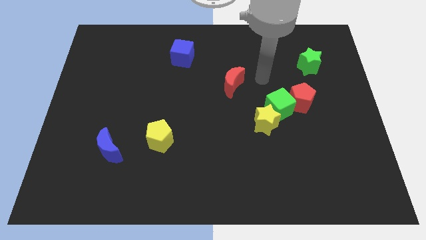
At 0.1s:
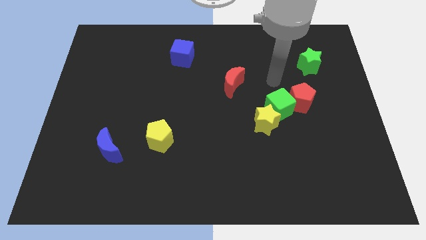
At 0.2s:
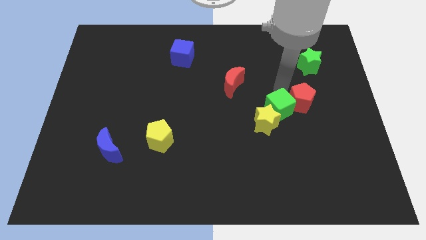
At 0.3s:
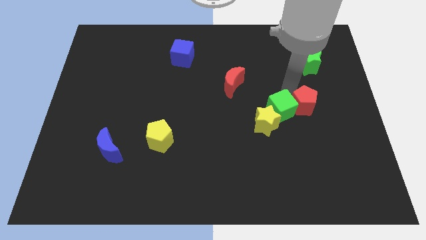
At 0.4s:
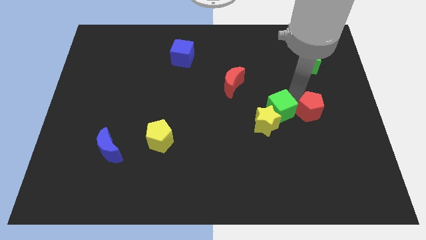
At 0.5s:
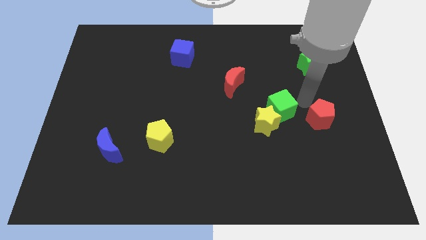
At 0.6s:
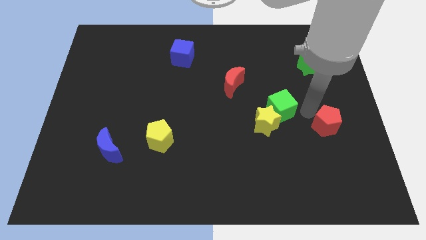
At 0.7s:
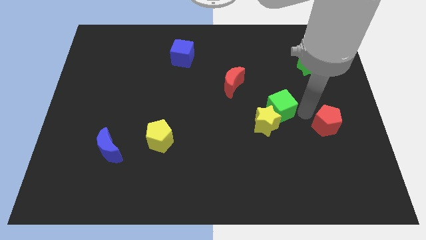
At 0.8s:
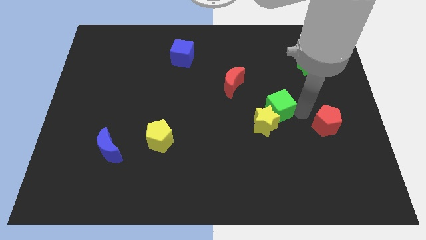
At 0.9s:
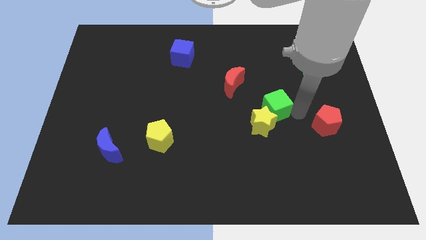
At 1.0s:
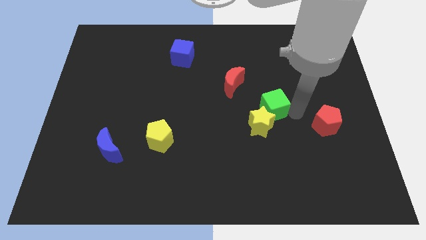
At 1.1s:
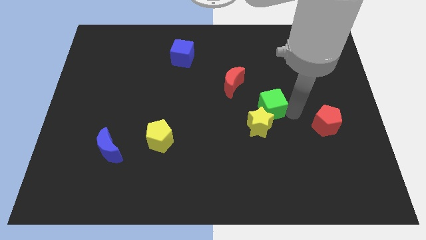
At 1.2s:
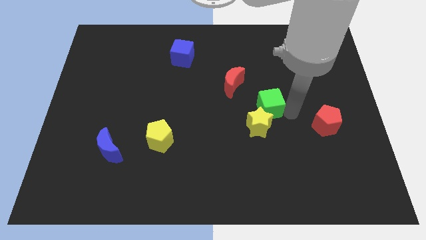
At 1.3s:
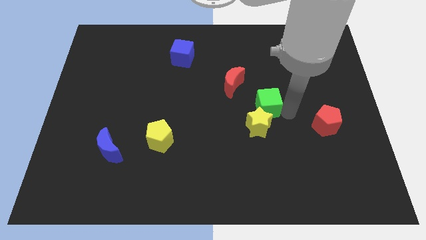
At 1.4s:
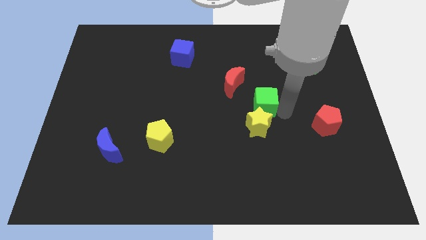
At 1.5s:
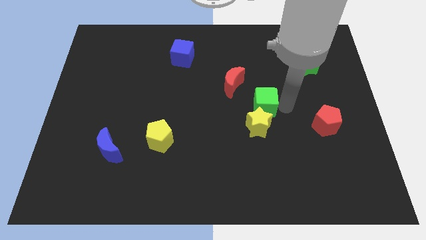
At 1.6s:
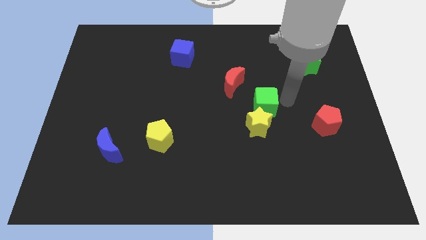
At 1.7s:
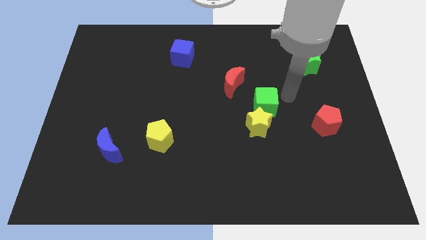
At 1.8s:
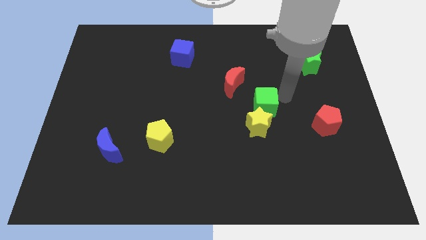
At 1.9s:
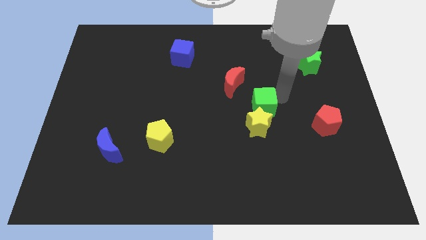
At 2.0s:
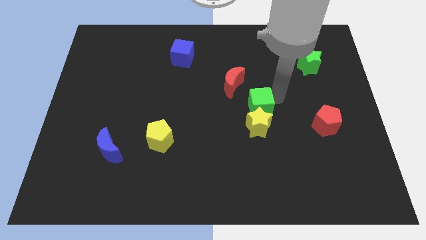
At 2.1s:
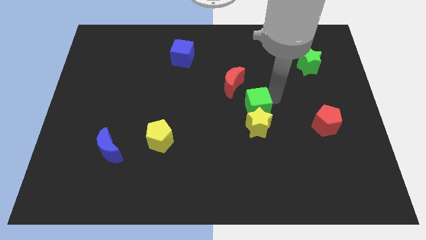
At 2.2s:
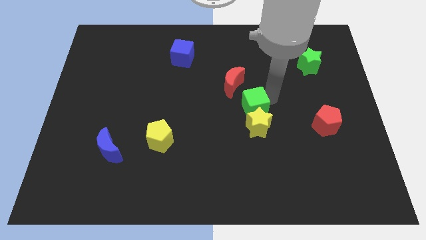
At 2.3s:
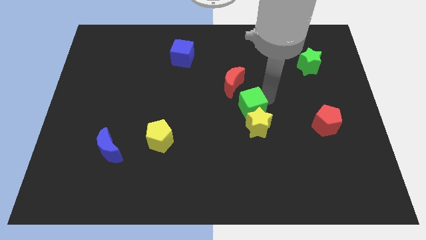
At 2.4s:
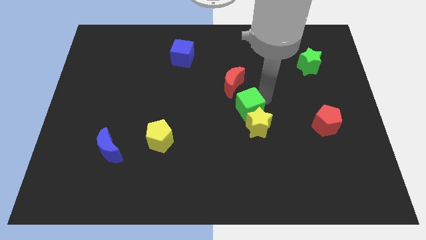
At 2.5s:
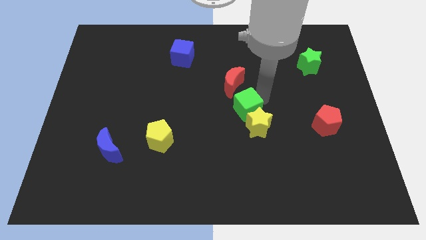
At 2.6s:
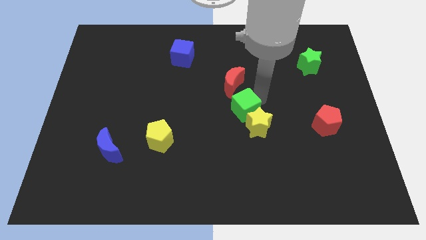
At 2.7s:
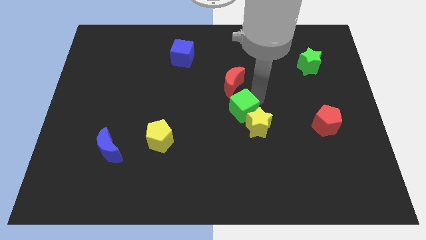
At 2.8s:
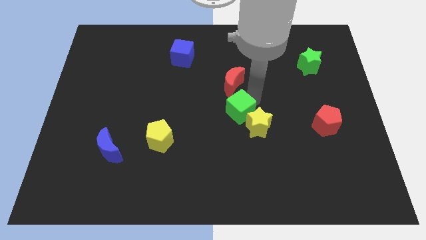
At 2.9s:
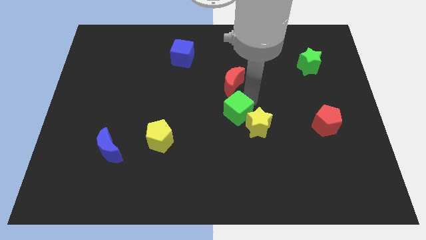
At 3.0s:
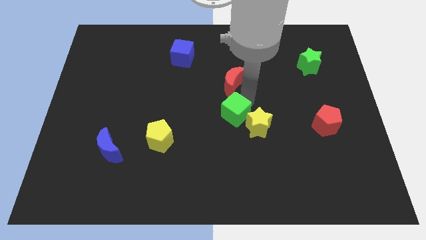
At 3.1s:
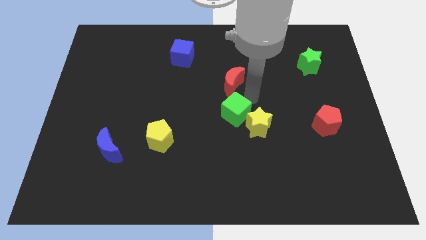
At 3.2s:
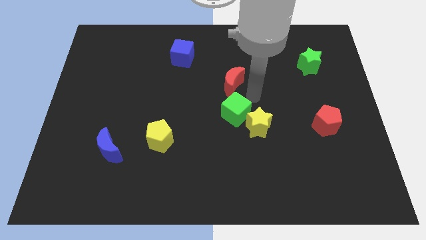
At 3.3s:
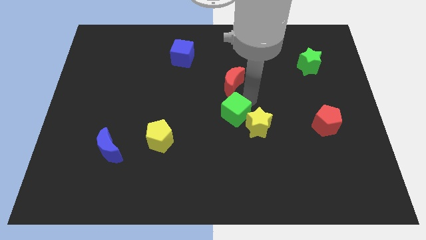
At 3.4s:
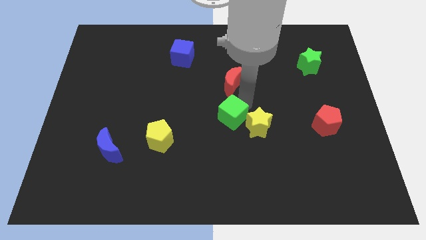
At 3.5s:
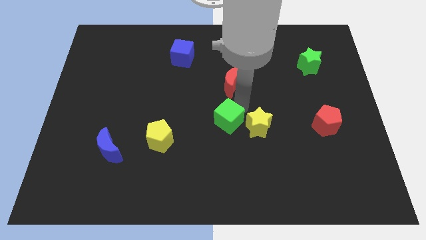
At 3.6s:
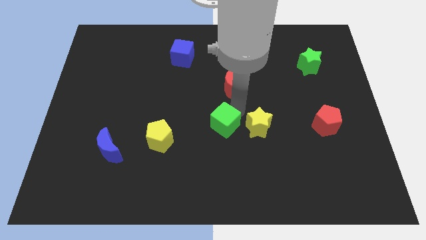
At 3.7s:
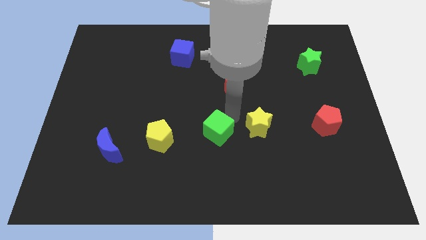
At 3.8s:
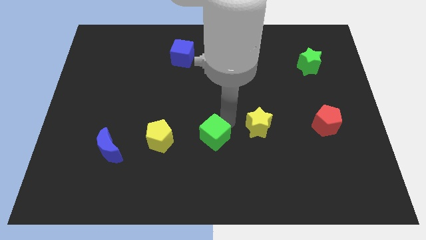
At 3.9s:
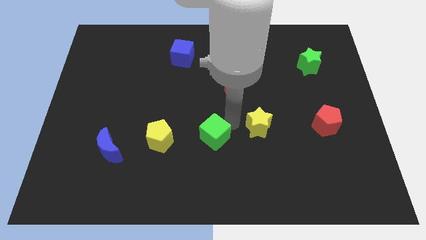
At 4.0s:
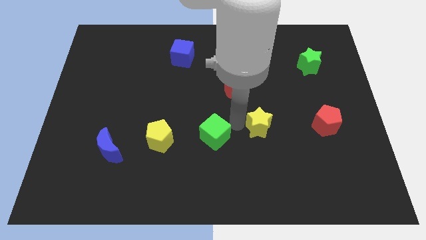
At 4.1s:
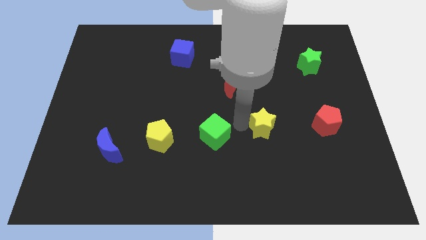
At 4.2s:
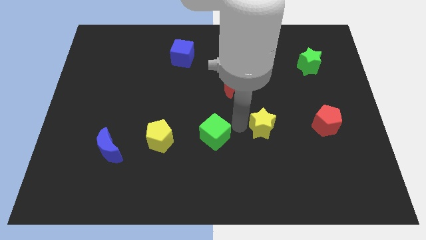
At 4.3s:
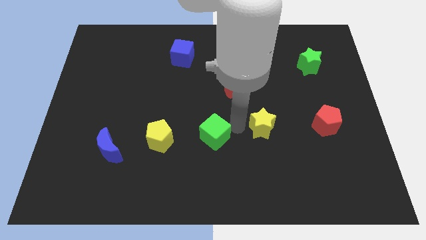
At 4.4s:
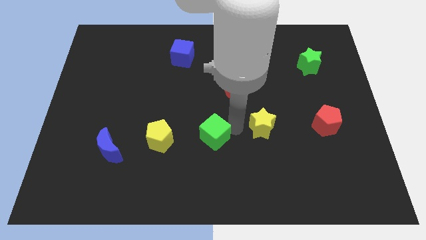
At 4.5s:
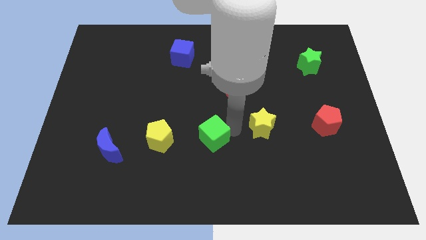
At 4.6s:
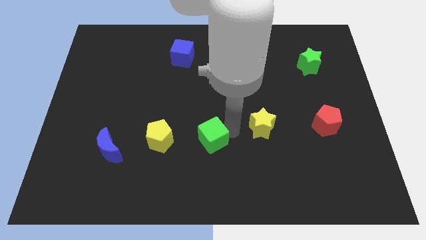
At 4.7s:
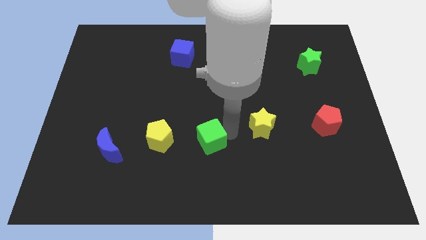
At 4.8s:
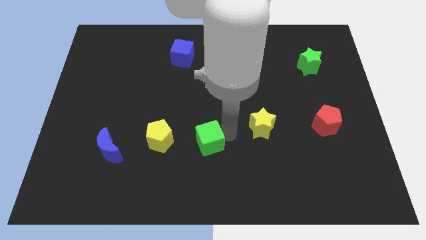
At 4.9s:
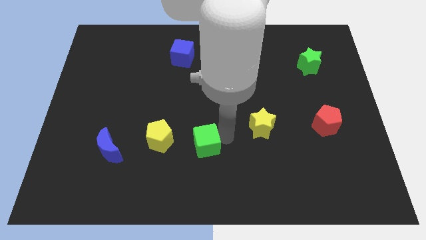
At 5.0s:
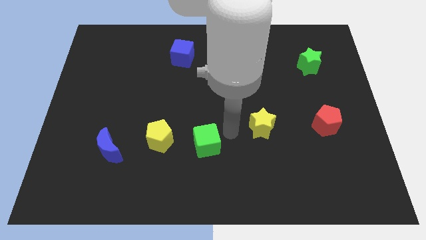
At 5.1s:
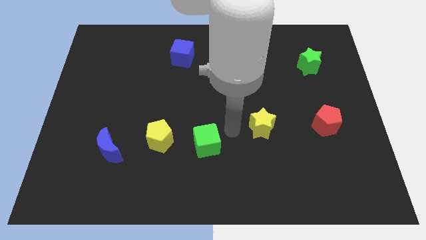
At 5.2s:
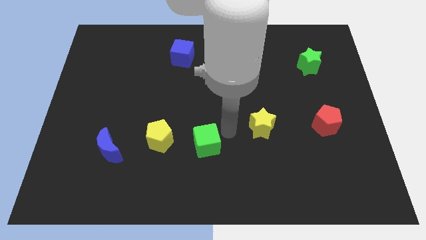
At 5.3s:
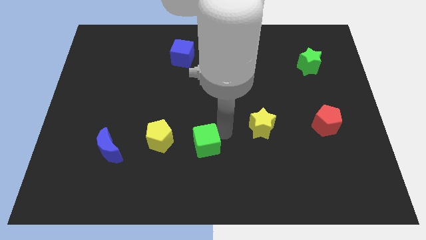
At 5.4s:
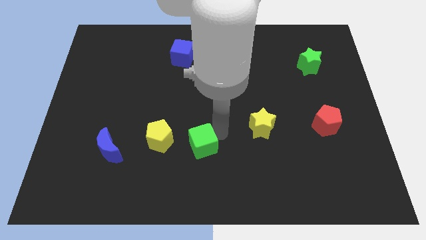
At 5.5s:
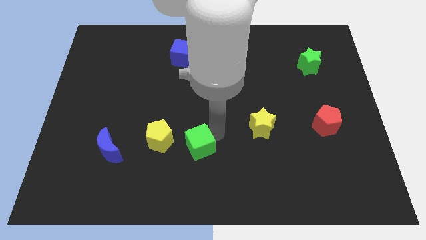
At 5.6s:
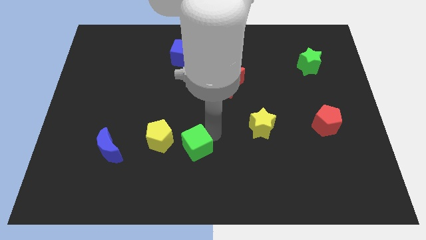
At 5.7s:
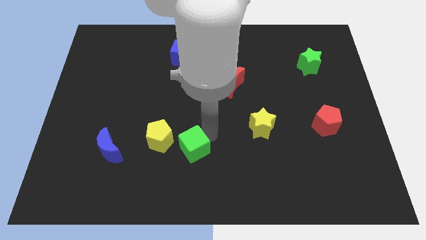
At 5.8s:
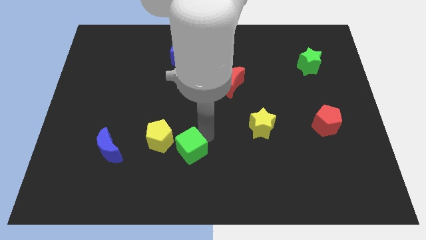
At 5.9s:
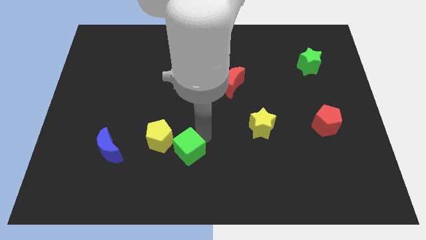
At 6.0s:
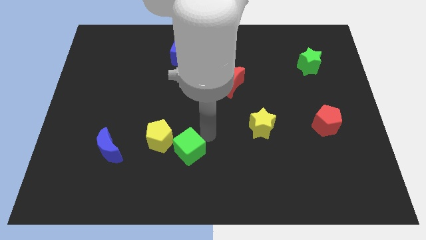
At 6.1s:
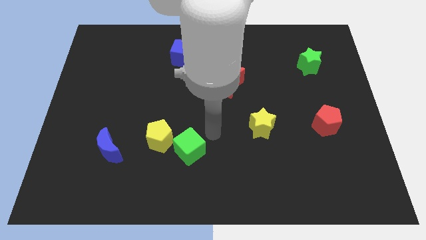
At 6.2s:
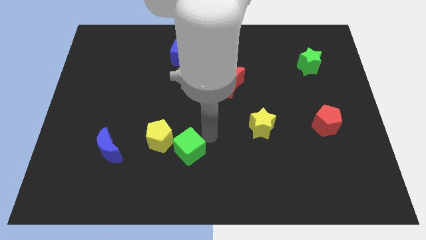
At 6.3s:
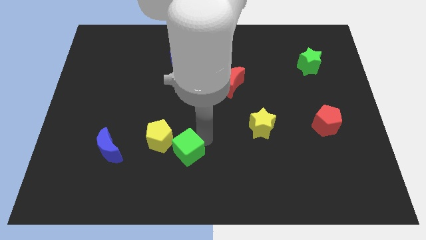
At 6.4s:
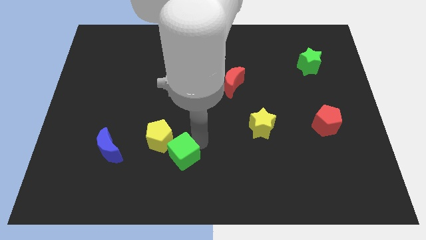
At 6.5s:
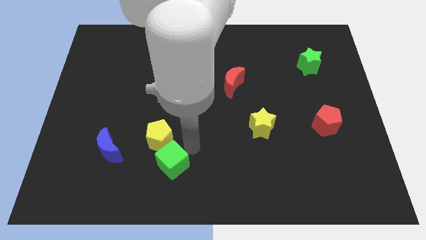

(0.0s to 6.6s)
slide the green cube to the bottom side of the yellow pentagon

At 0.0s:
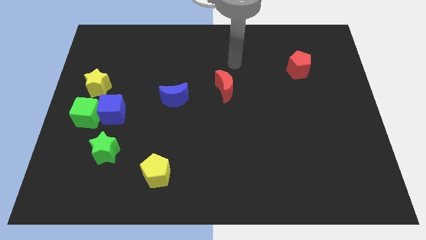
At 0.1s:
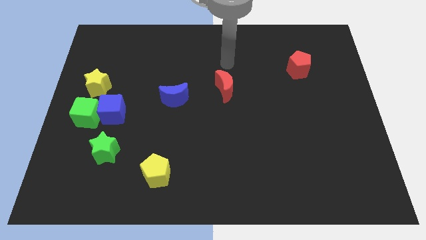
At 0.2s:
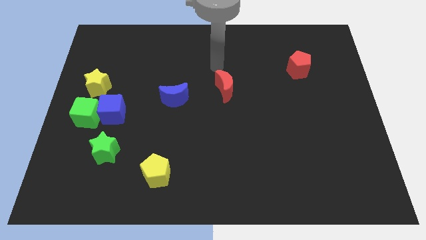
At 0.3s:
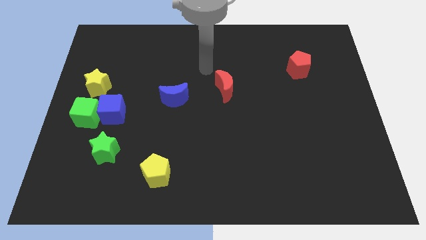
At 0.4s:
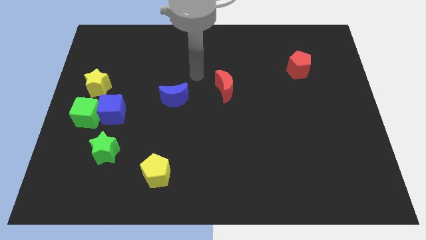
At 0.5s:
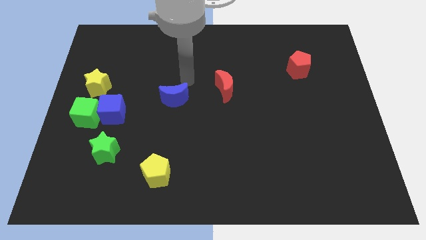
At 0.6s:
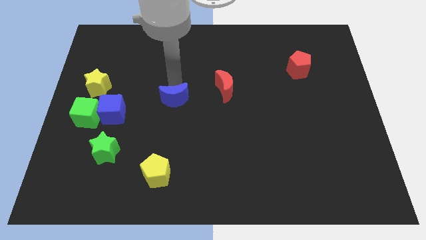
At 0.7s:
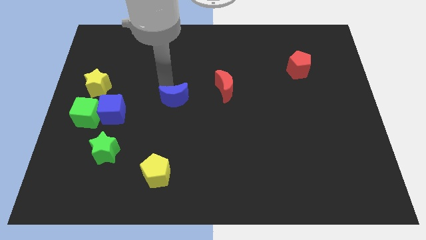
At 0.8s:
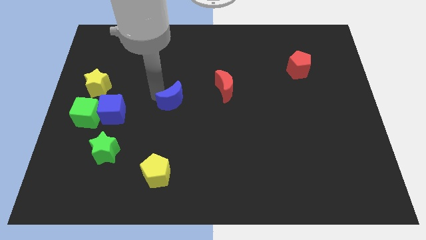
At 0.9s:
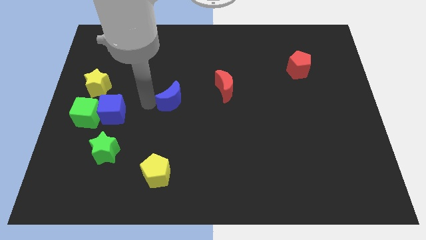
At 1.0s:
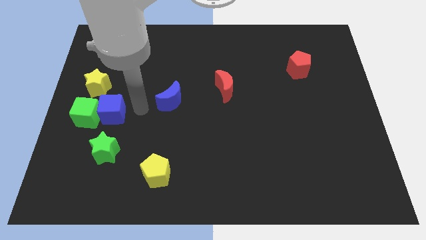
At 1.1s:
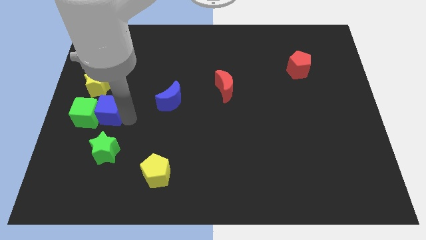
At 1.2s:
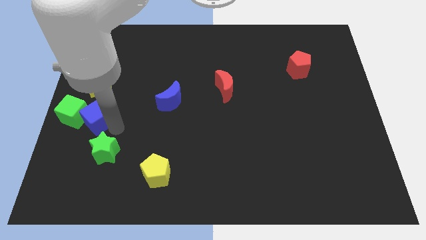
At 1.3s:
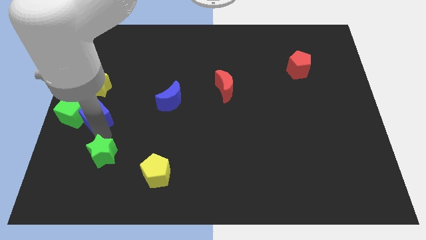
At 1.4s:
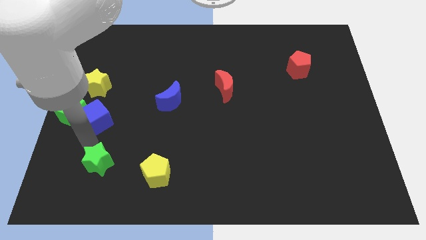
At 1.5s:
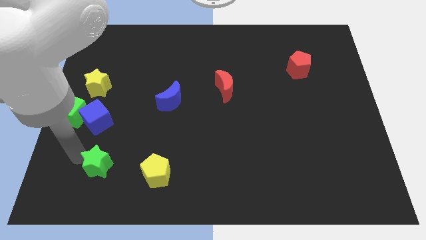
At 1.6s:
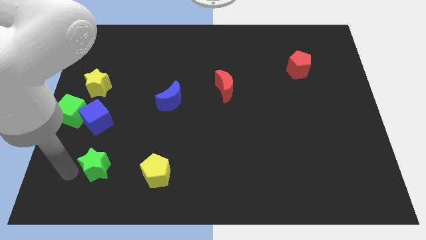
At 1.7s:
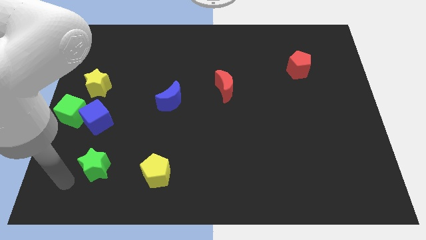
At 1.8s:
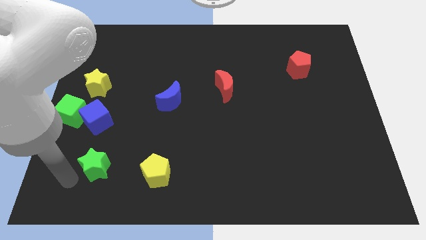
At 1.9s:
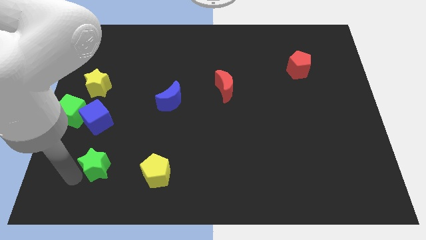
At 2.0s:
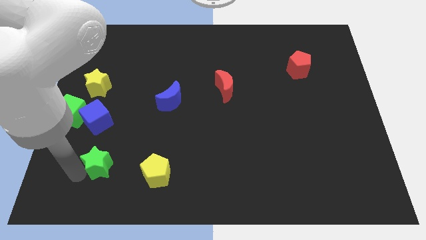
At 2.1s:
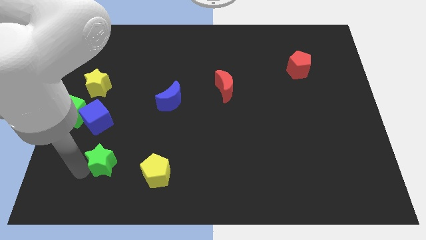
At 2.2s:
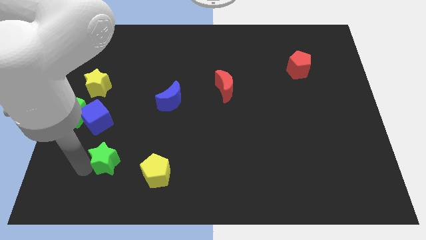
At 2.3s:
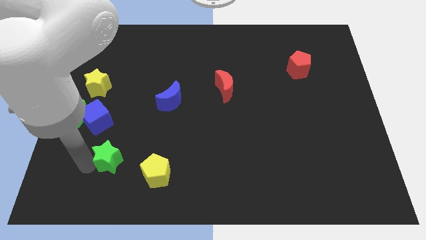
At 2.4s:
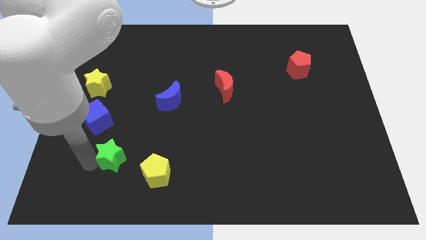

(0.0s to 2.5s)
put the green star diagonally up and to the left of the yellow pentagon
